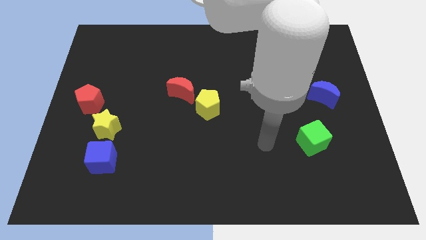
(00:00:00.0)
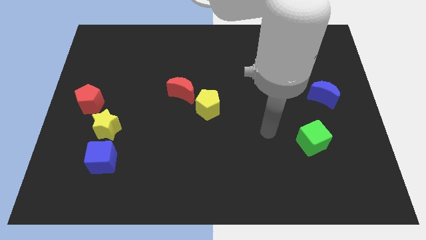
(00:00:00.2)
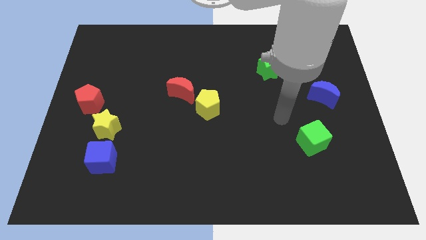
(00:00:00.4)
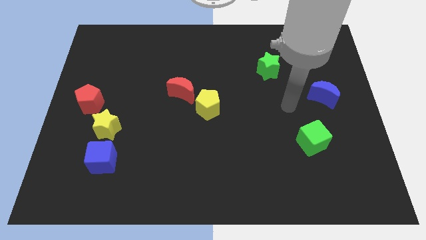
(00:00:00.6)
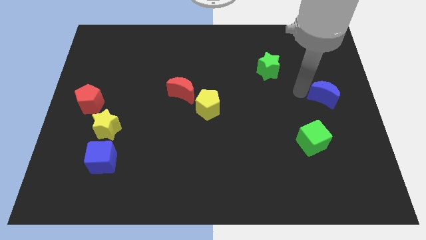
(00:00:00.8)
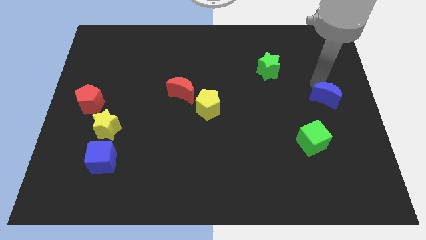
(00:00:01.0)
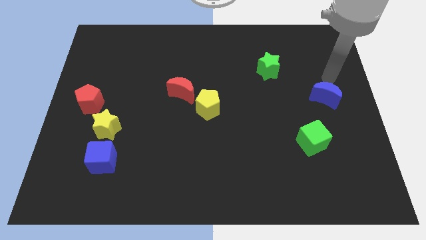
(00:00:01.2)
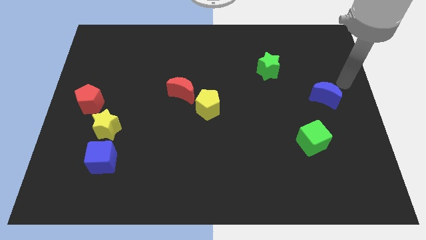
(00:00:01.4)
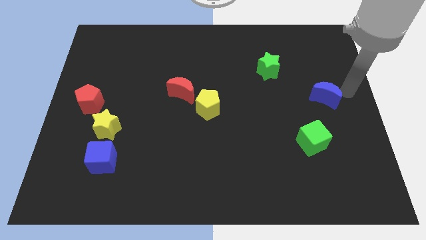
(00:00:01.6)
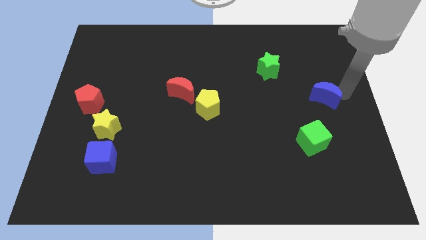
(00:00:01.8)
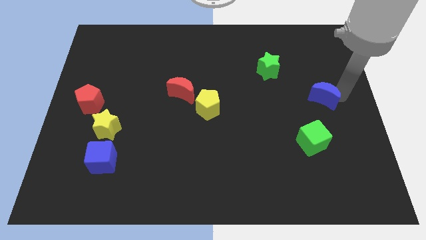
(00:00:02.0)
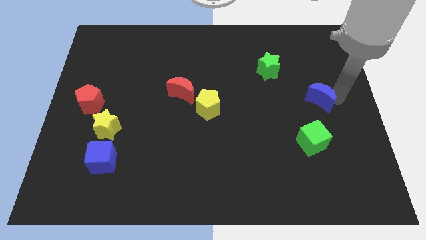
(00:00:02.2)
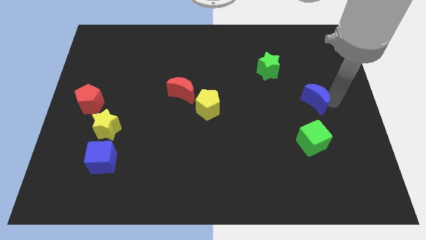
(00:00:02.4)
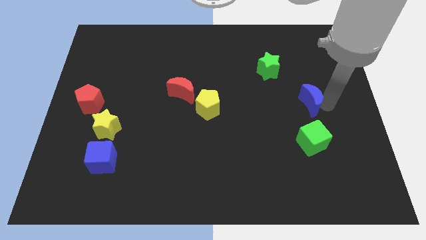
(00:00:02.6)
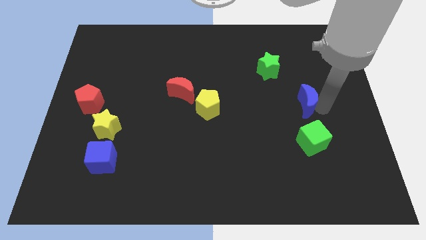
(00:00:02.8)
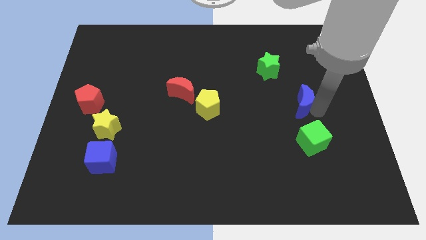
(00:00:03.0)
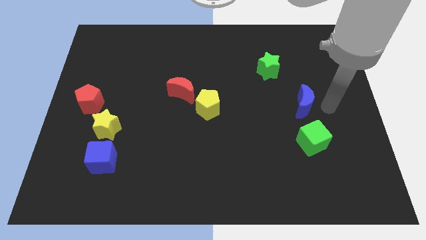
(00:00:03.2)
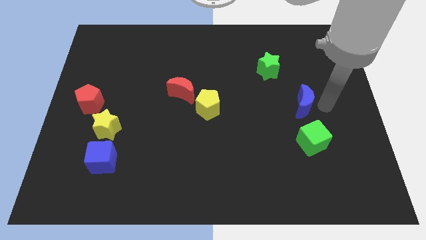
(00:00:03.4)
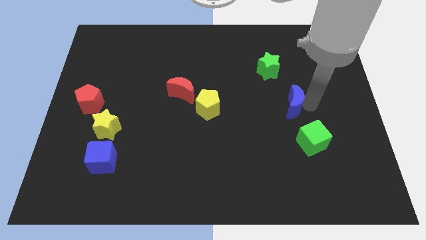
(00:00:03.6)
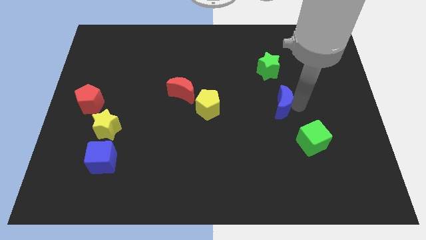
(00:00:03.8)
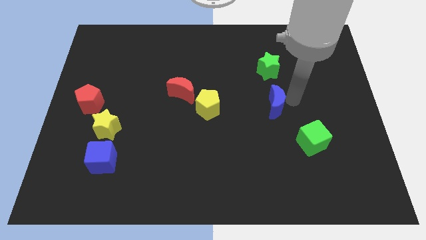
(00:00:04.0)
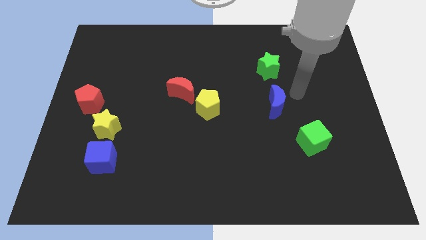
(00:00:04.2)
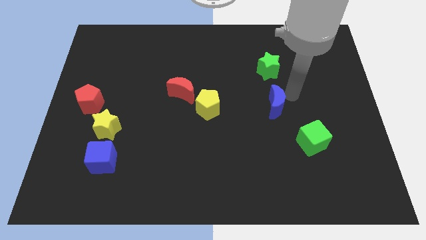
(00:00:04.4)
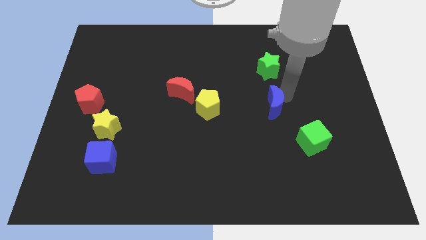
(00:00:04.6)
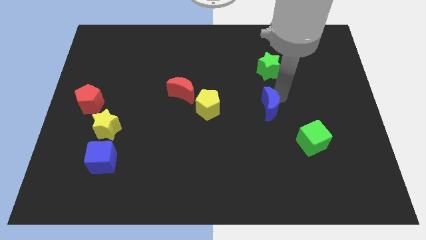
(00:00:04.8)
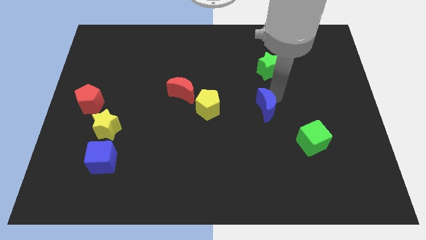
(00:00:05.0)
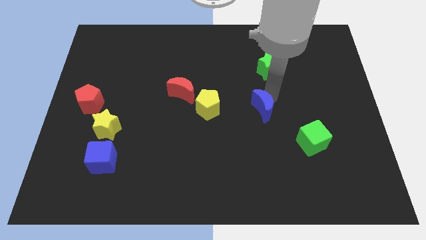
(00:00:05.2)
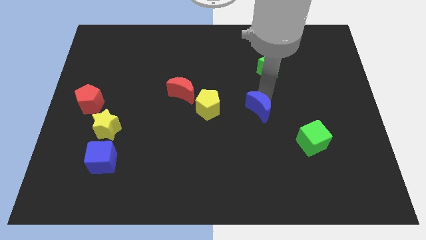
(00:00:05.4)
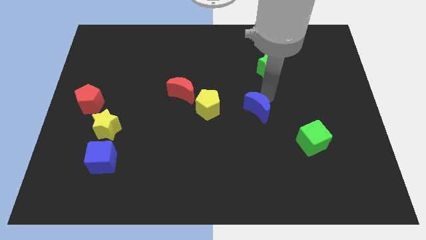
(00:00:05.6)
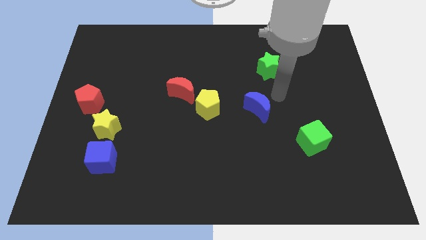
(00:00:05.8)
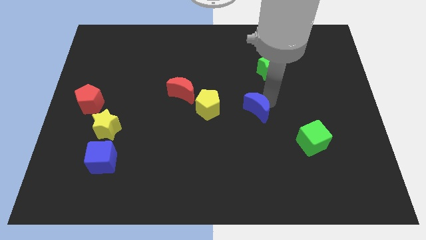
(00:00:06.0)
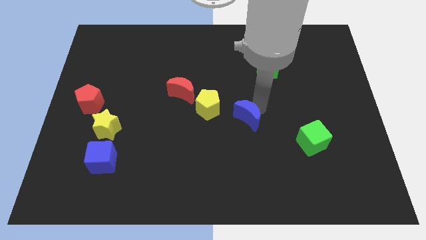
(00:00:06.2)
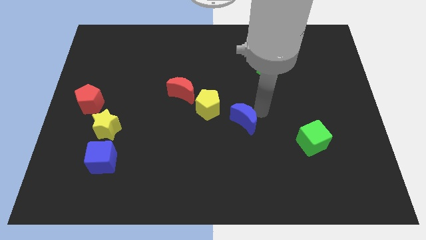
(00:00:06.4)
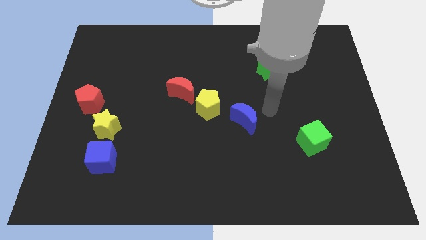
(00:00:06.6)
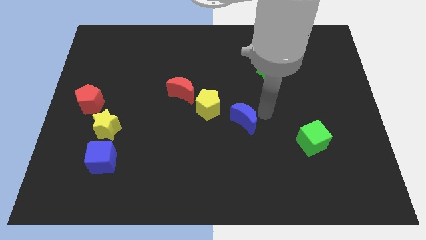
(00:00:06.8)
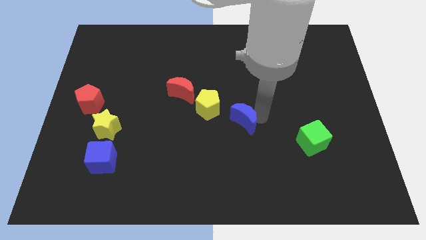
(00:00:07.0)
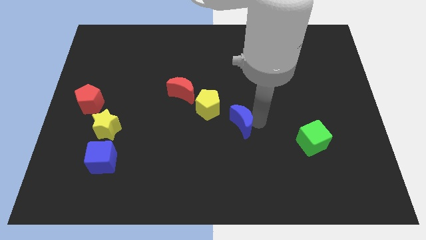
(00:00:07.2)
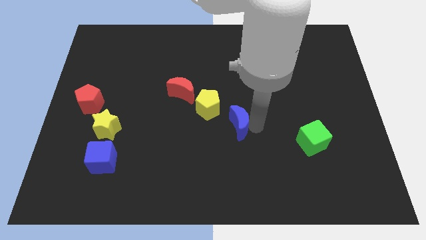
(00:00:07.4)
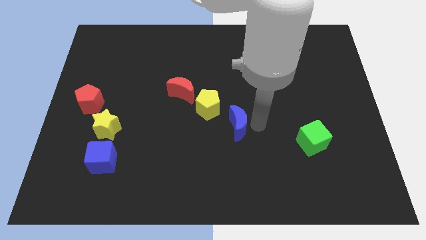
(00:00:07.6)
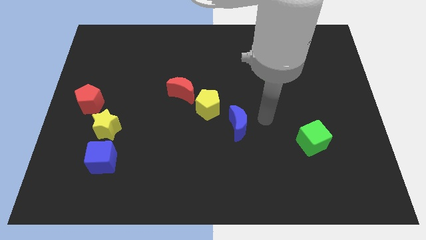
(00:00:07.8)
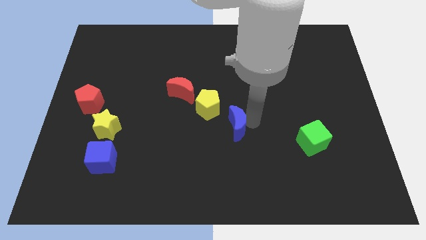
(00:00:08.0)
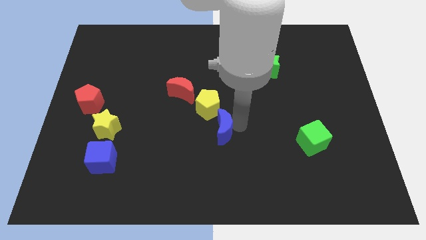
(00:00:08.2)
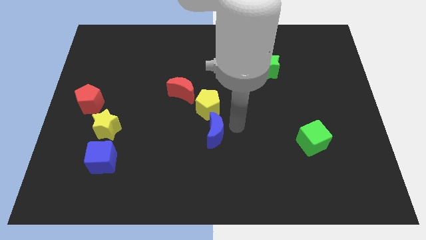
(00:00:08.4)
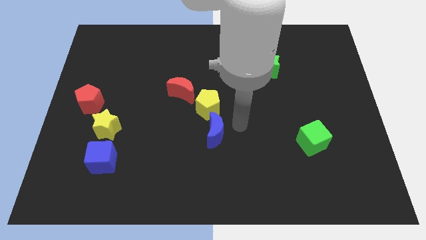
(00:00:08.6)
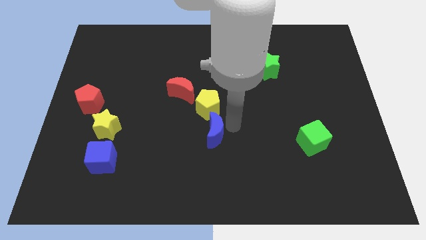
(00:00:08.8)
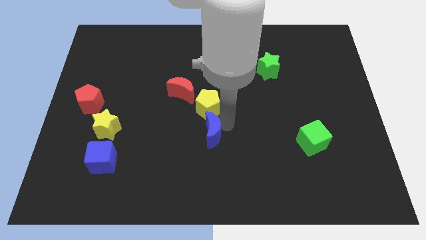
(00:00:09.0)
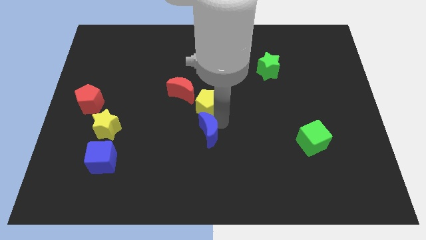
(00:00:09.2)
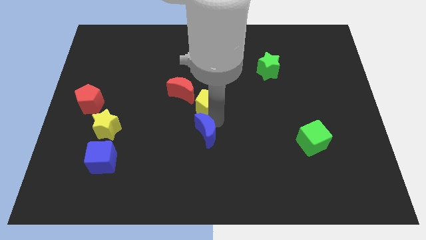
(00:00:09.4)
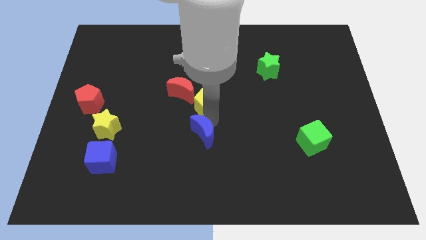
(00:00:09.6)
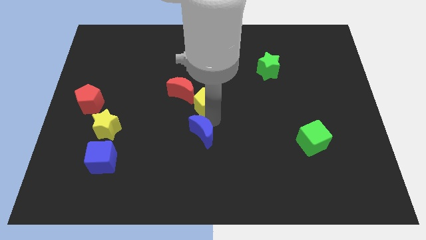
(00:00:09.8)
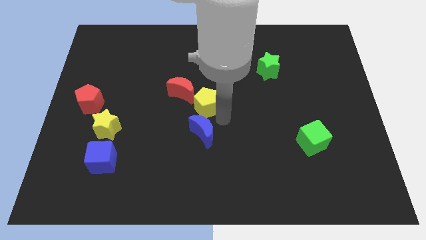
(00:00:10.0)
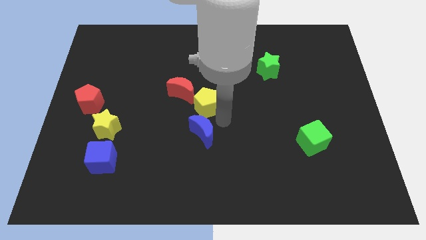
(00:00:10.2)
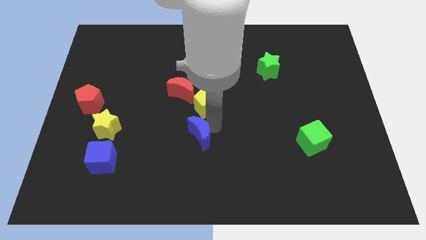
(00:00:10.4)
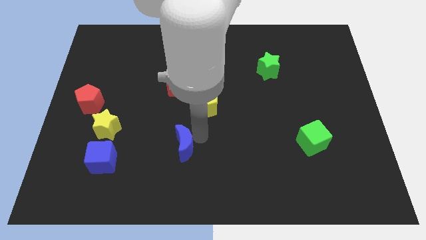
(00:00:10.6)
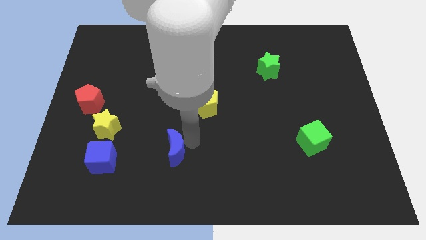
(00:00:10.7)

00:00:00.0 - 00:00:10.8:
push the blue moon to the right of the blue cube

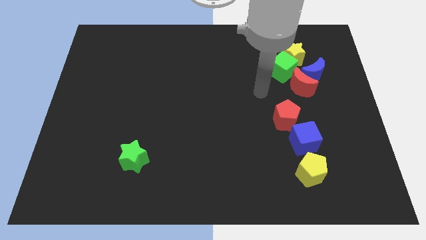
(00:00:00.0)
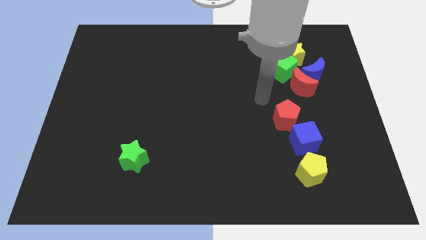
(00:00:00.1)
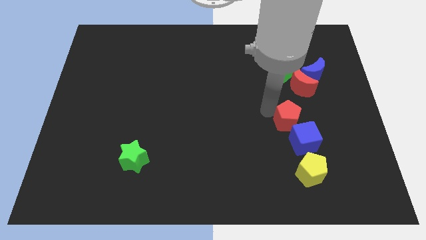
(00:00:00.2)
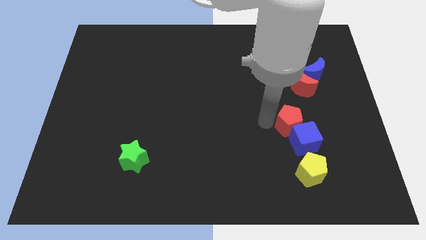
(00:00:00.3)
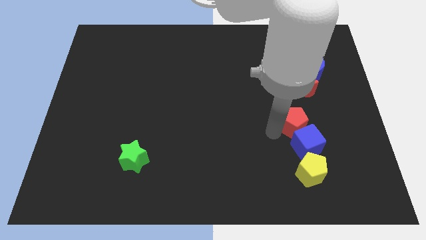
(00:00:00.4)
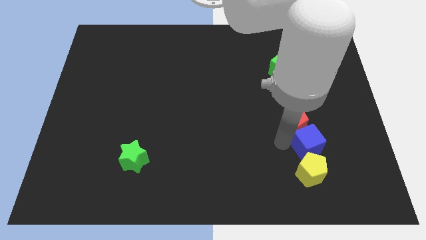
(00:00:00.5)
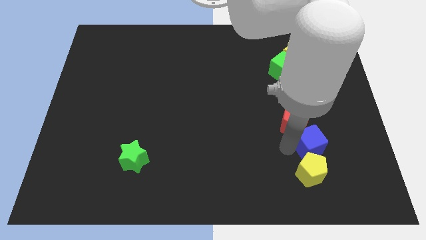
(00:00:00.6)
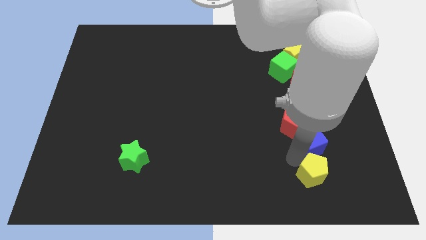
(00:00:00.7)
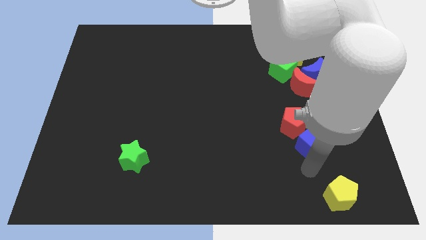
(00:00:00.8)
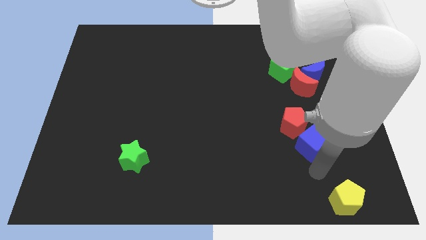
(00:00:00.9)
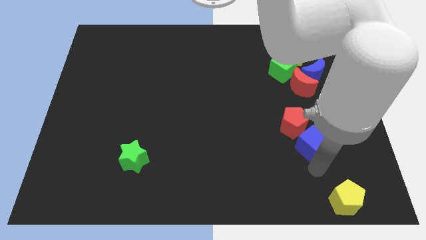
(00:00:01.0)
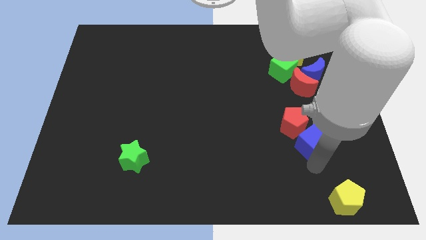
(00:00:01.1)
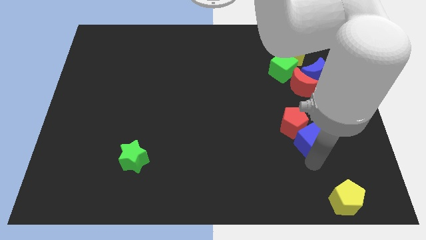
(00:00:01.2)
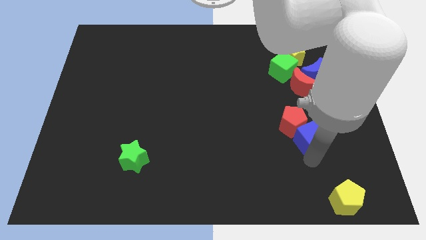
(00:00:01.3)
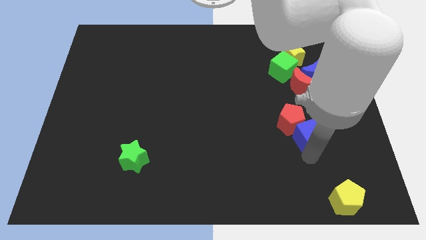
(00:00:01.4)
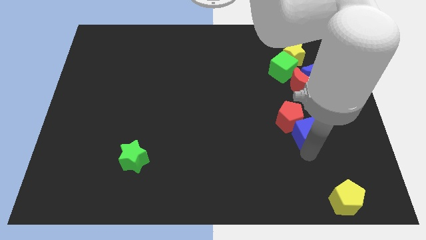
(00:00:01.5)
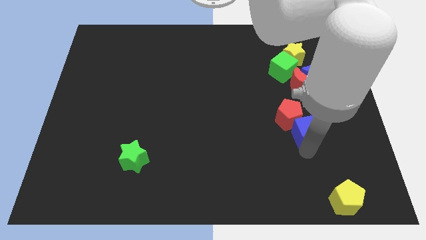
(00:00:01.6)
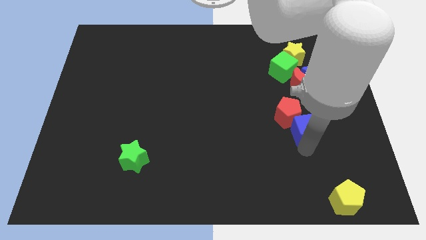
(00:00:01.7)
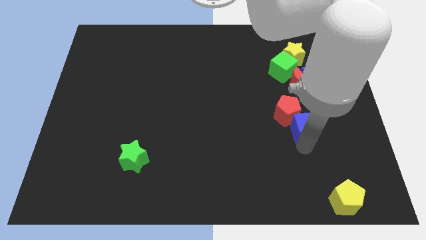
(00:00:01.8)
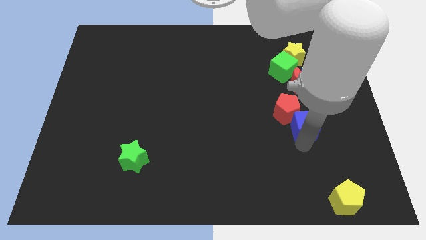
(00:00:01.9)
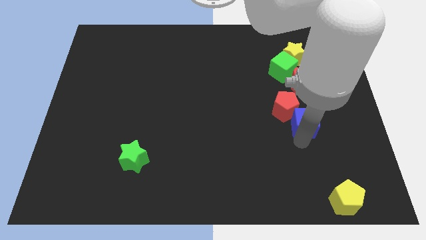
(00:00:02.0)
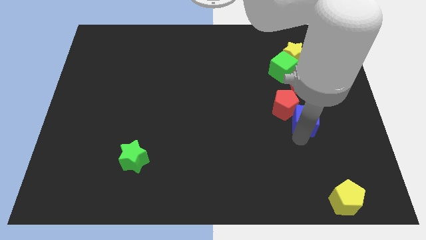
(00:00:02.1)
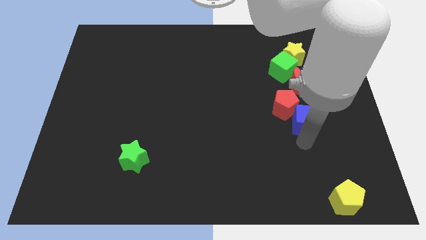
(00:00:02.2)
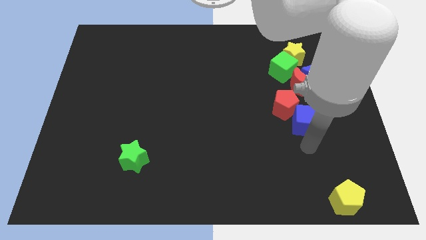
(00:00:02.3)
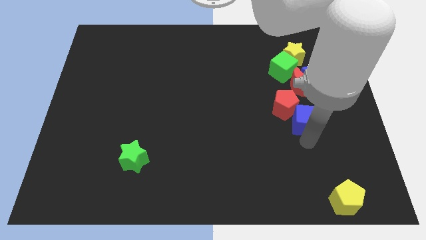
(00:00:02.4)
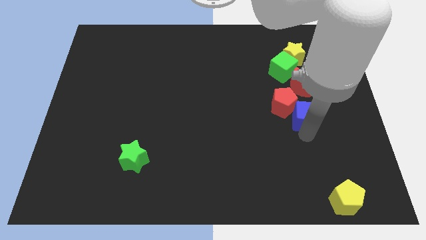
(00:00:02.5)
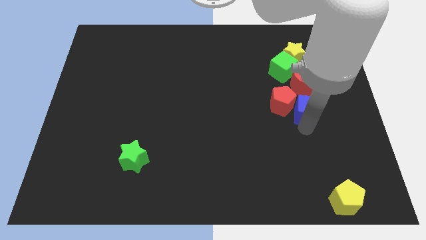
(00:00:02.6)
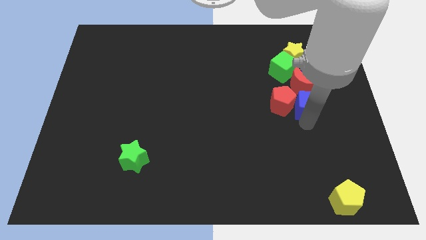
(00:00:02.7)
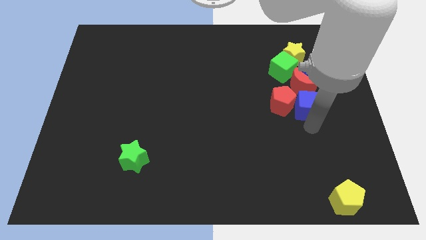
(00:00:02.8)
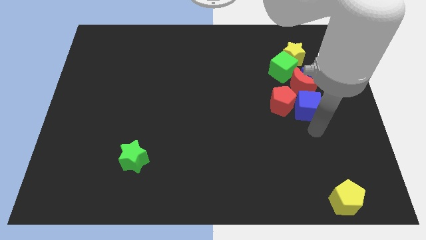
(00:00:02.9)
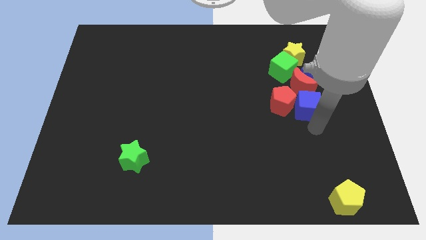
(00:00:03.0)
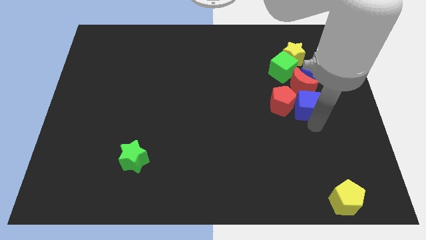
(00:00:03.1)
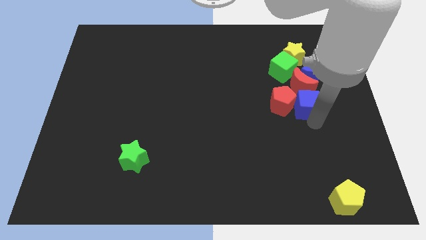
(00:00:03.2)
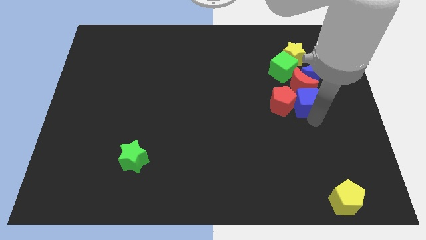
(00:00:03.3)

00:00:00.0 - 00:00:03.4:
slide the blue cube to the bottom side of the yellow star
